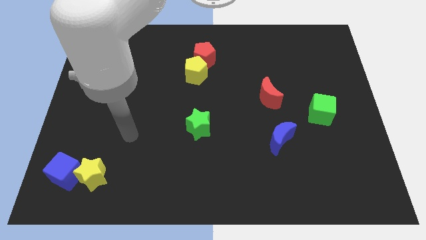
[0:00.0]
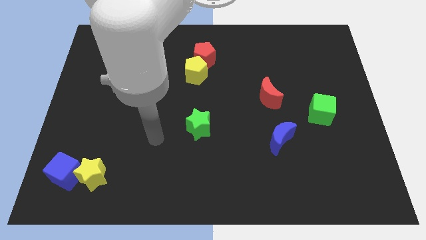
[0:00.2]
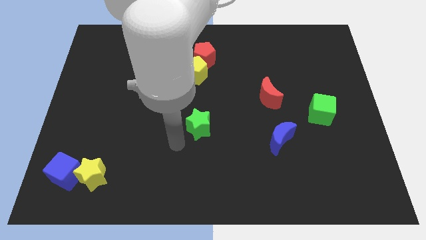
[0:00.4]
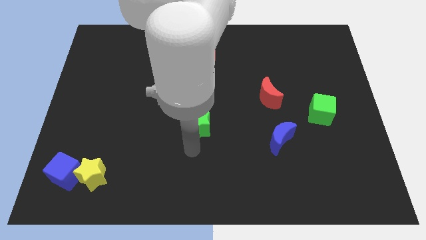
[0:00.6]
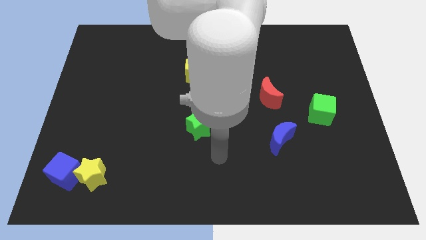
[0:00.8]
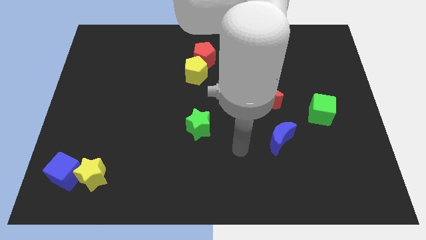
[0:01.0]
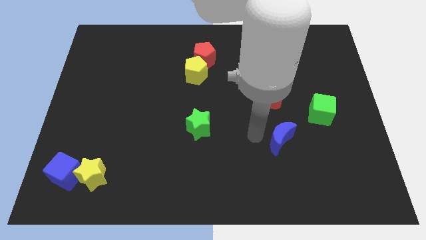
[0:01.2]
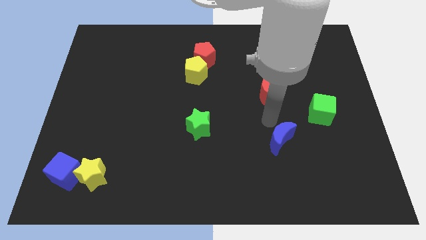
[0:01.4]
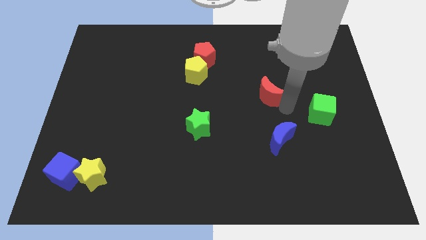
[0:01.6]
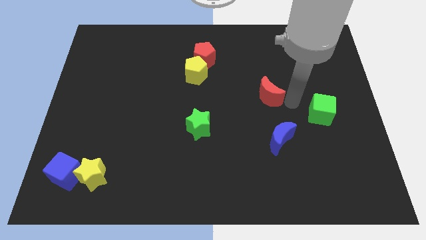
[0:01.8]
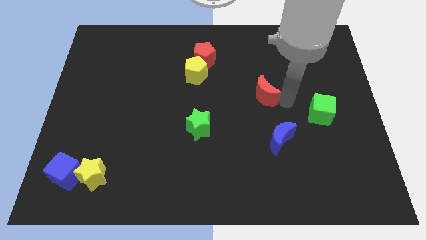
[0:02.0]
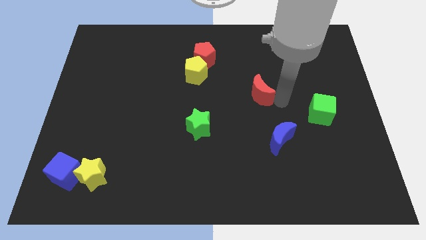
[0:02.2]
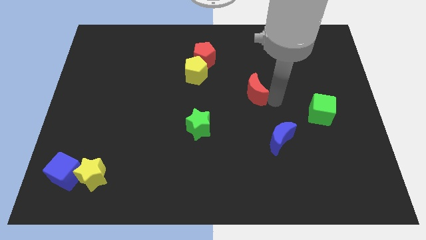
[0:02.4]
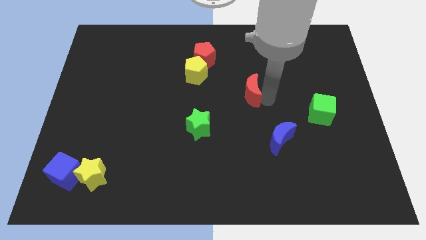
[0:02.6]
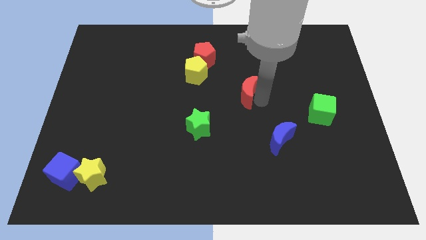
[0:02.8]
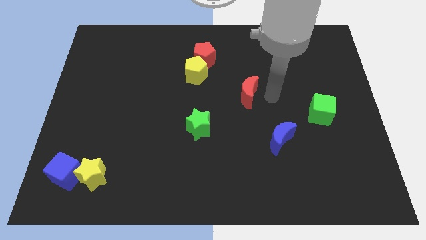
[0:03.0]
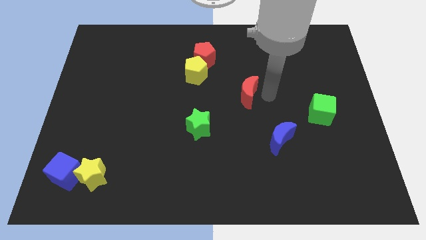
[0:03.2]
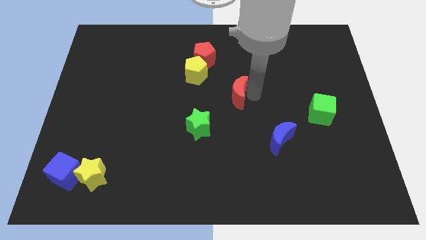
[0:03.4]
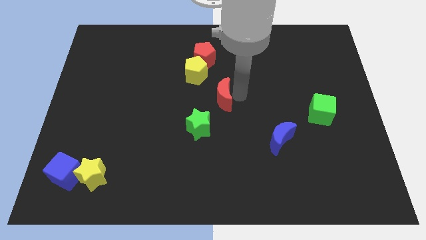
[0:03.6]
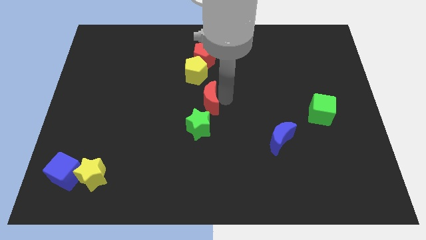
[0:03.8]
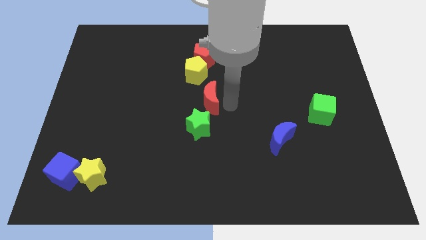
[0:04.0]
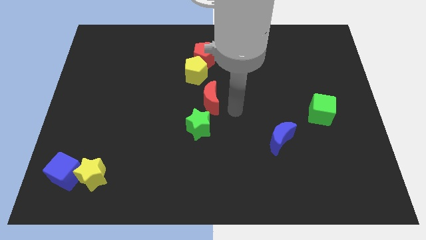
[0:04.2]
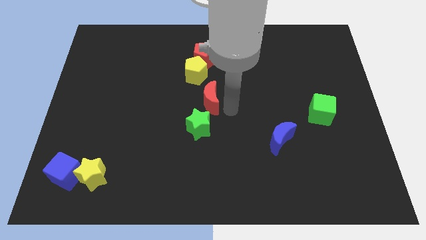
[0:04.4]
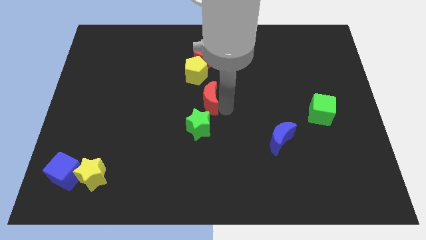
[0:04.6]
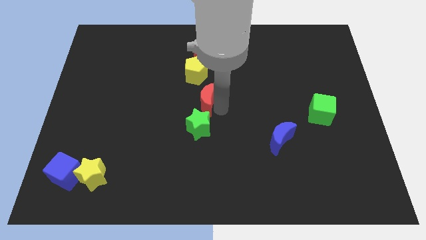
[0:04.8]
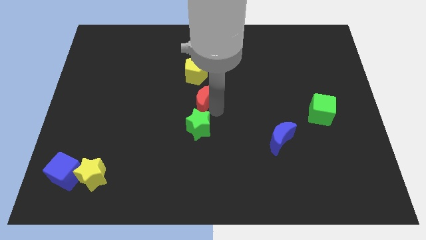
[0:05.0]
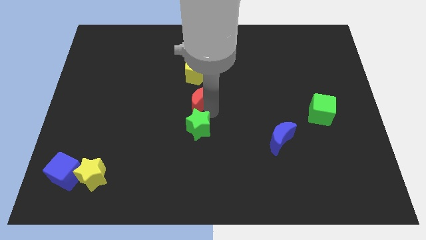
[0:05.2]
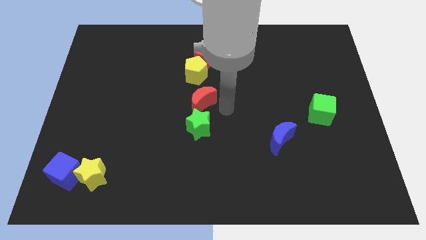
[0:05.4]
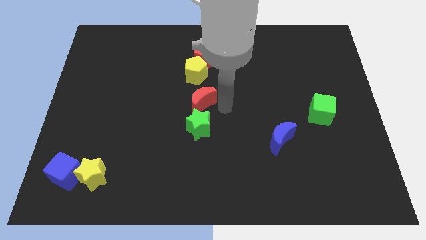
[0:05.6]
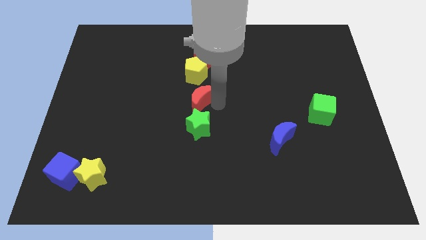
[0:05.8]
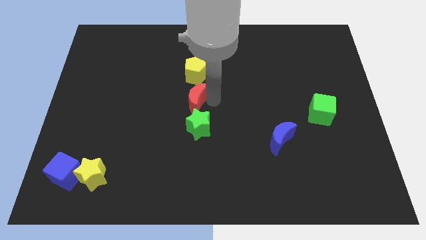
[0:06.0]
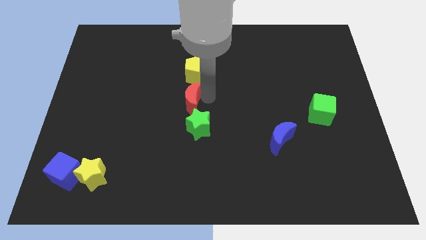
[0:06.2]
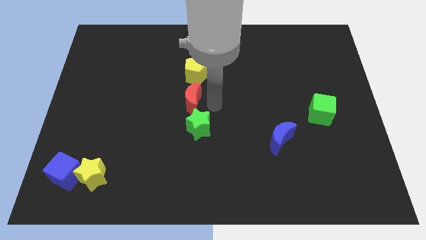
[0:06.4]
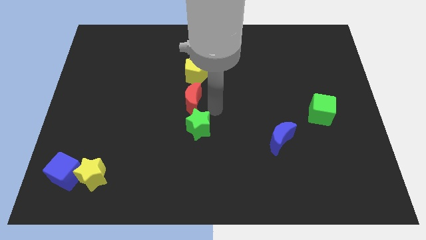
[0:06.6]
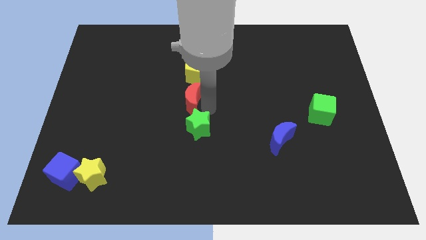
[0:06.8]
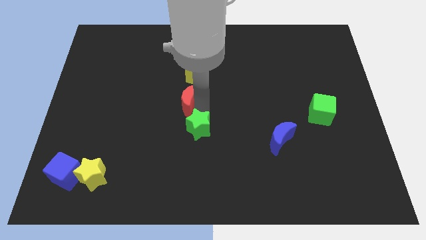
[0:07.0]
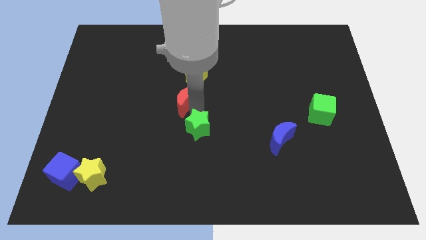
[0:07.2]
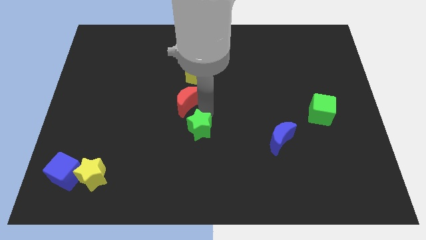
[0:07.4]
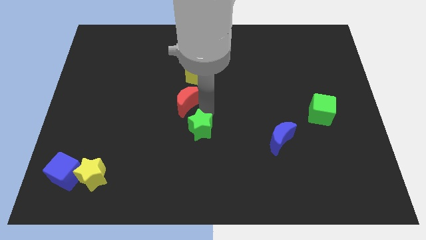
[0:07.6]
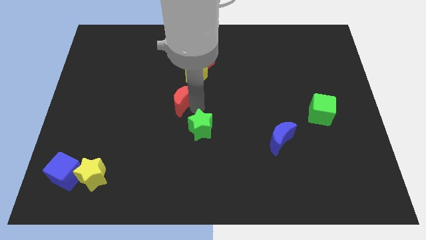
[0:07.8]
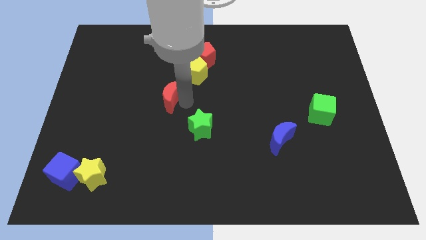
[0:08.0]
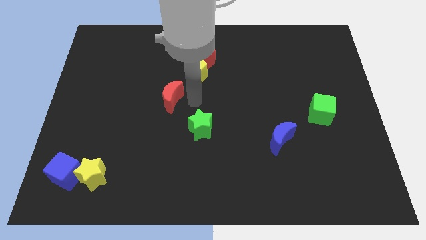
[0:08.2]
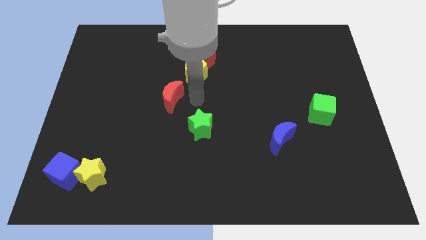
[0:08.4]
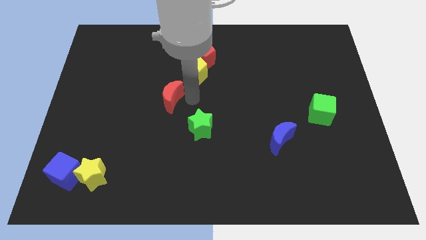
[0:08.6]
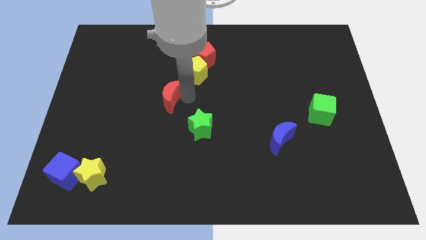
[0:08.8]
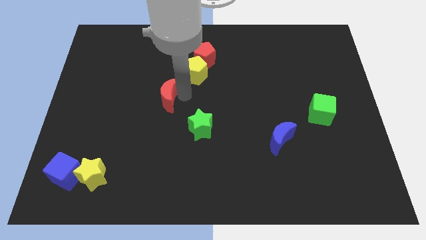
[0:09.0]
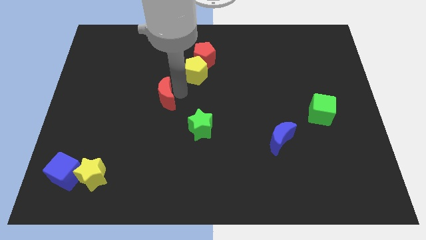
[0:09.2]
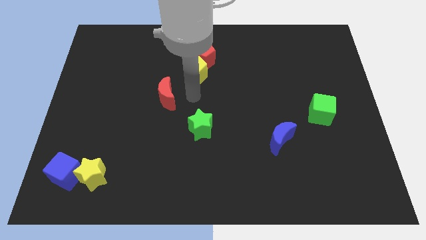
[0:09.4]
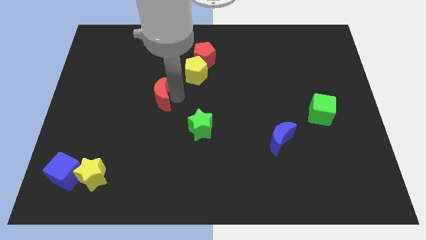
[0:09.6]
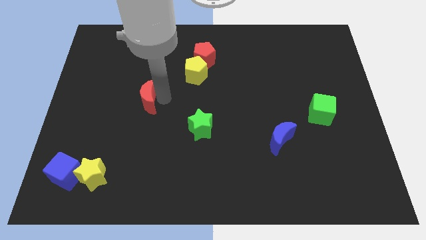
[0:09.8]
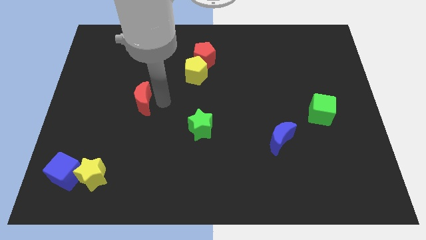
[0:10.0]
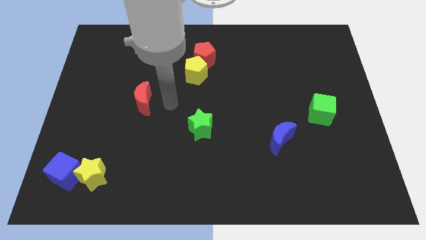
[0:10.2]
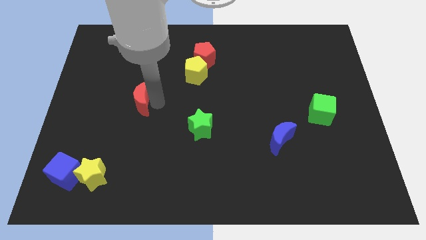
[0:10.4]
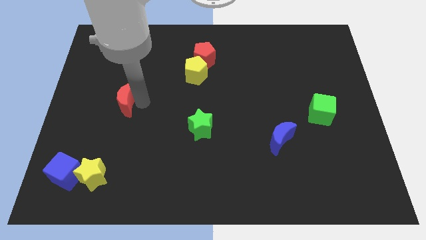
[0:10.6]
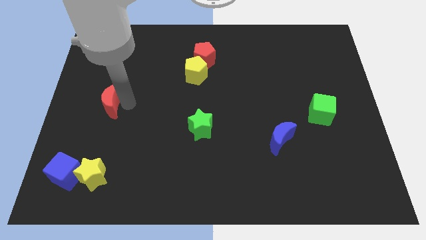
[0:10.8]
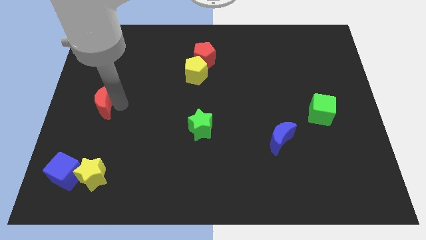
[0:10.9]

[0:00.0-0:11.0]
put the red moon to the left side

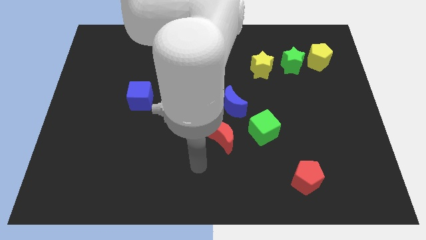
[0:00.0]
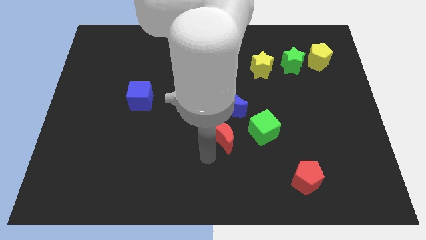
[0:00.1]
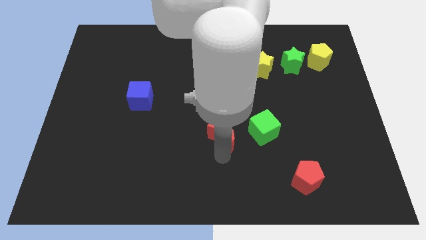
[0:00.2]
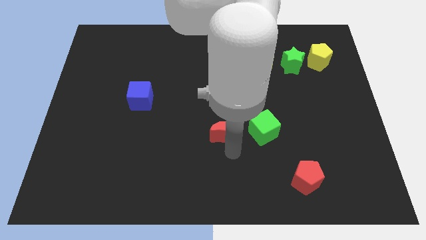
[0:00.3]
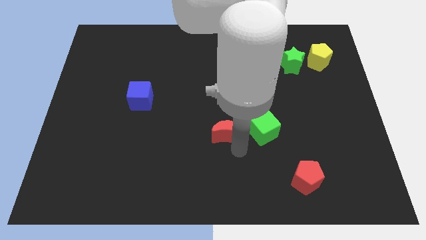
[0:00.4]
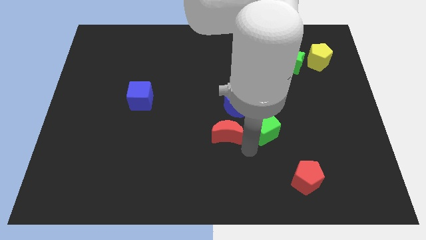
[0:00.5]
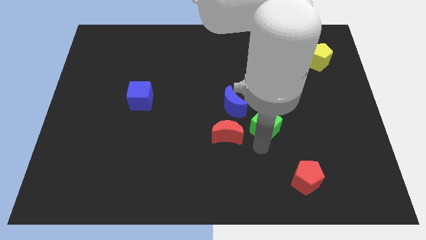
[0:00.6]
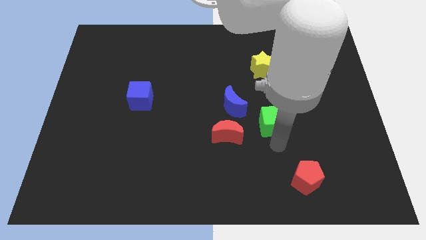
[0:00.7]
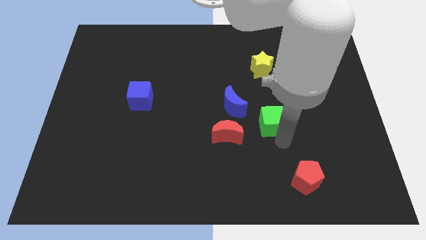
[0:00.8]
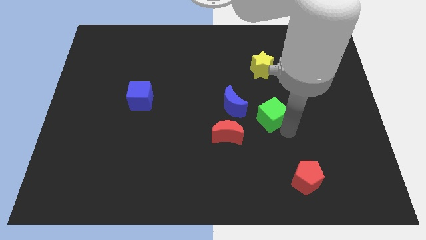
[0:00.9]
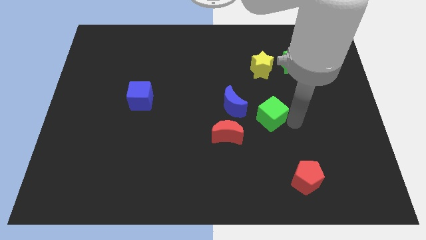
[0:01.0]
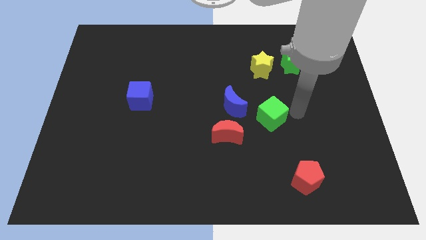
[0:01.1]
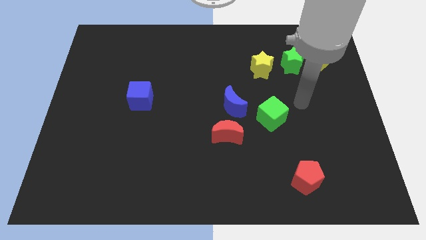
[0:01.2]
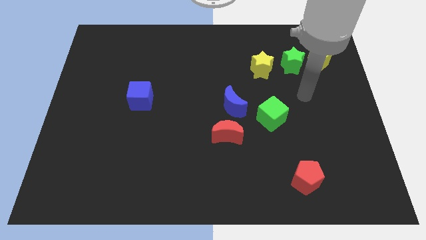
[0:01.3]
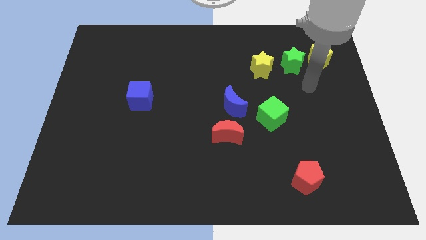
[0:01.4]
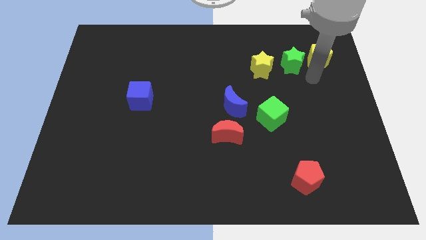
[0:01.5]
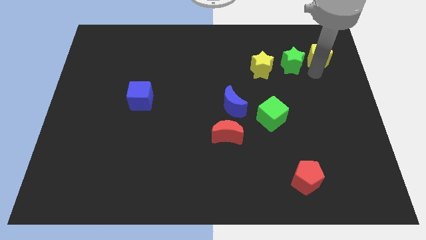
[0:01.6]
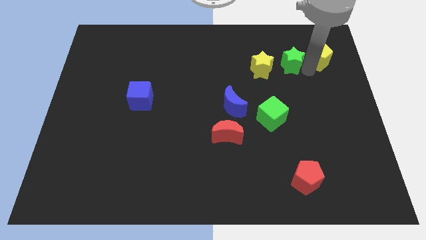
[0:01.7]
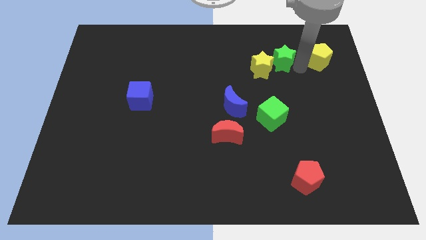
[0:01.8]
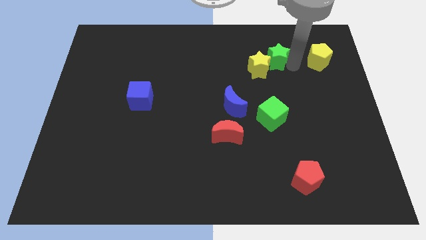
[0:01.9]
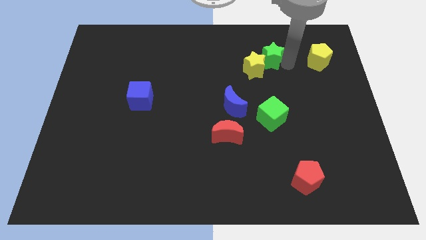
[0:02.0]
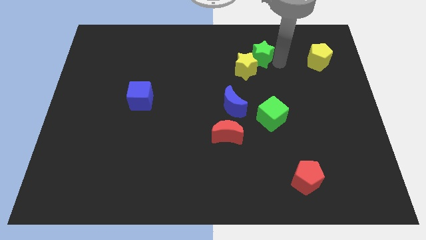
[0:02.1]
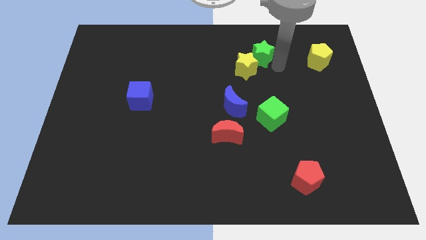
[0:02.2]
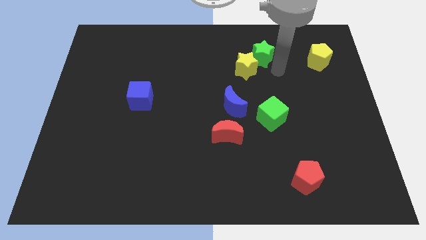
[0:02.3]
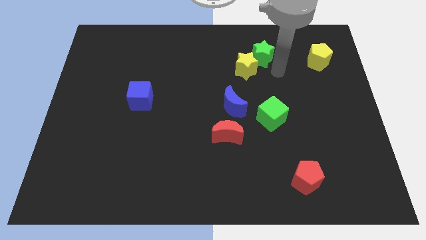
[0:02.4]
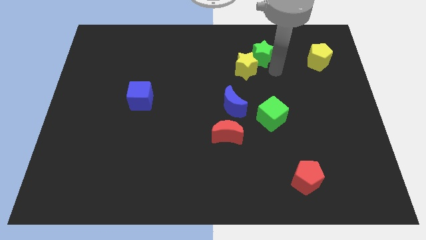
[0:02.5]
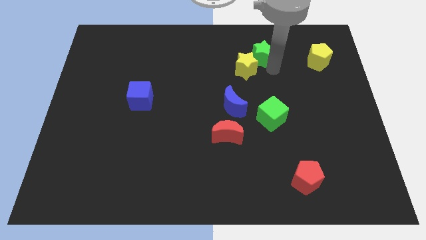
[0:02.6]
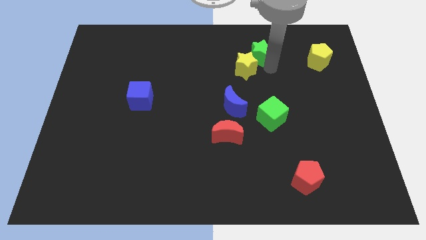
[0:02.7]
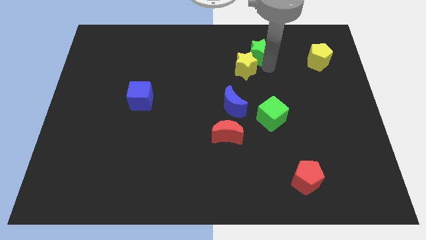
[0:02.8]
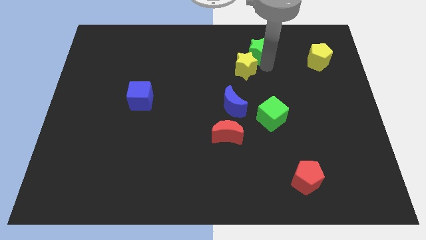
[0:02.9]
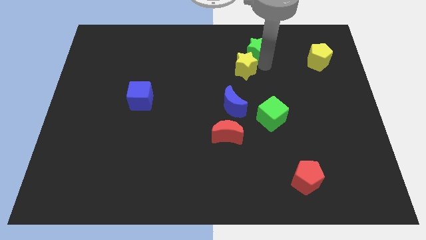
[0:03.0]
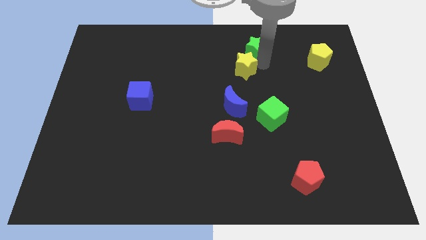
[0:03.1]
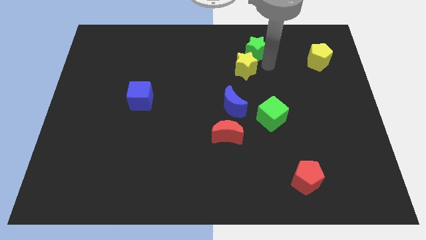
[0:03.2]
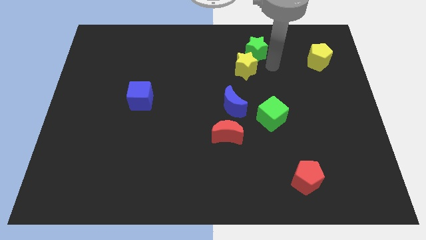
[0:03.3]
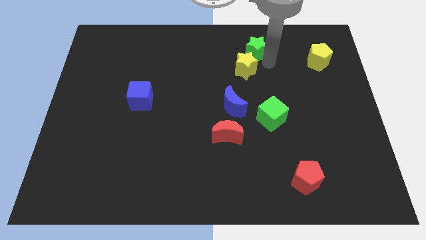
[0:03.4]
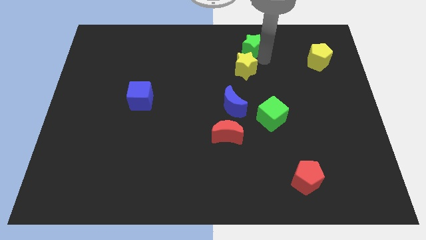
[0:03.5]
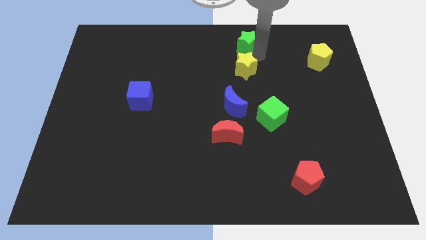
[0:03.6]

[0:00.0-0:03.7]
move the green star to the towards your base
